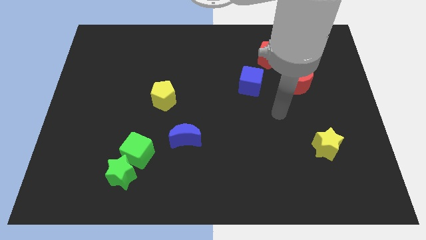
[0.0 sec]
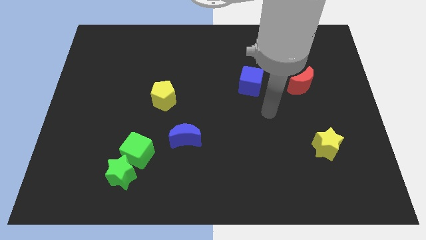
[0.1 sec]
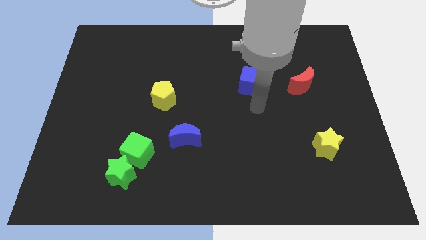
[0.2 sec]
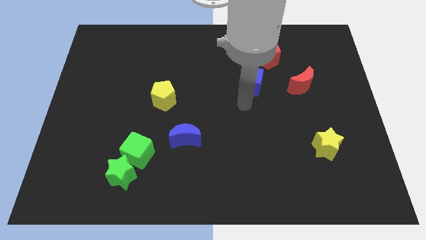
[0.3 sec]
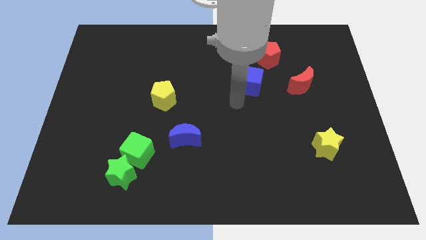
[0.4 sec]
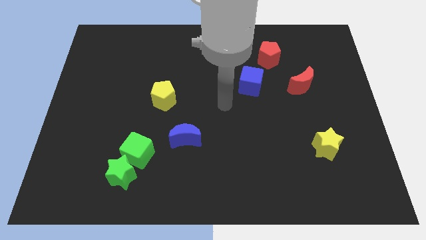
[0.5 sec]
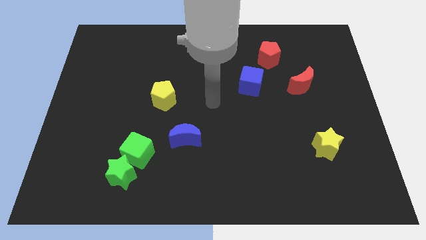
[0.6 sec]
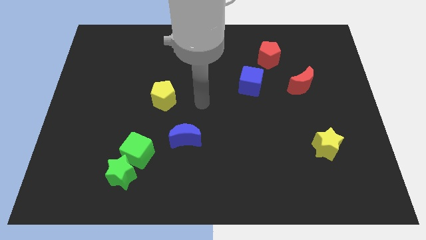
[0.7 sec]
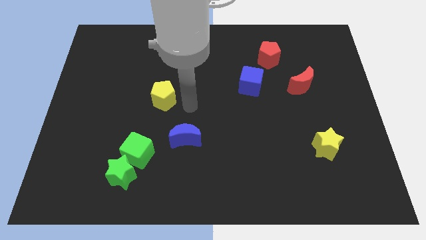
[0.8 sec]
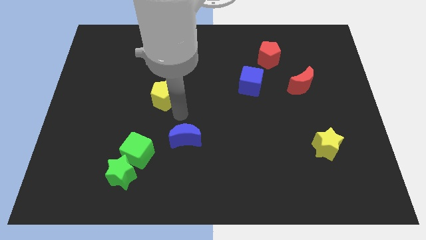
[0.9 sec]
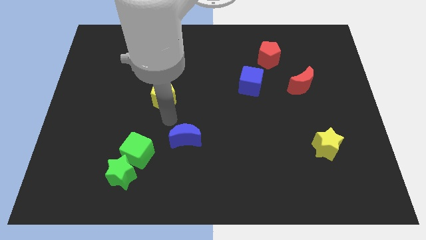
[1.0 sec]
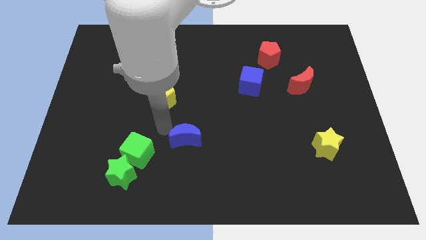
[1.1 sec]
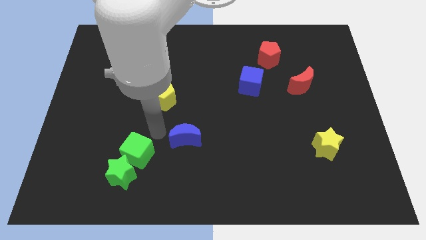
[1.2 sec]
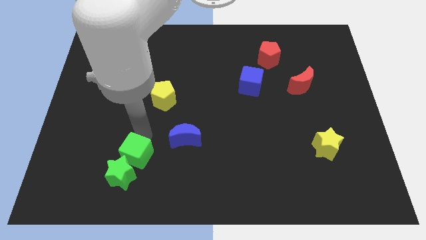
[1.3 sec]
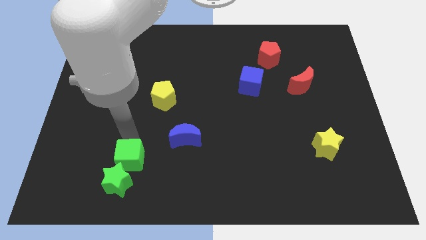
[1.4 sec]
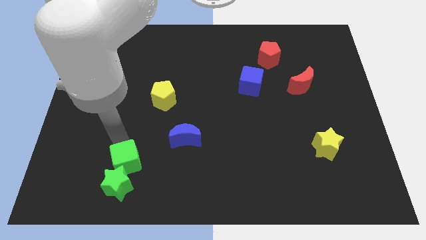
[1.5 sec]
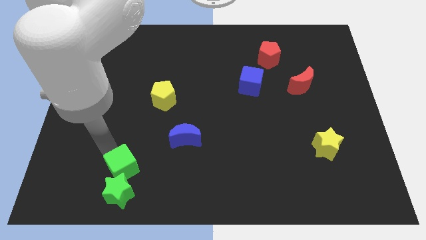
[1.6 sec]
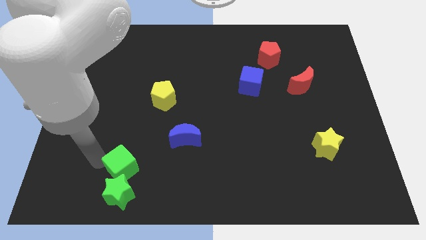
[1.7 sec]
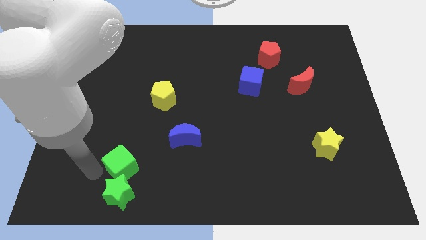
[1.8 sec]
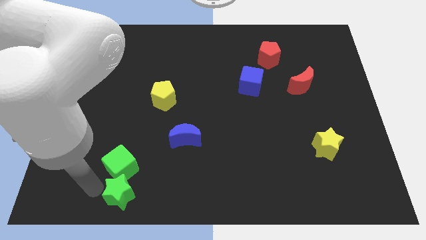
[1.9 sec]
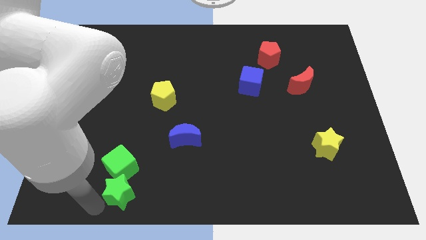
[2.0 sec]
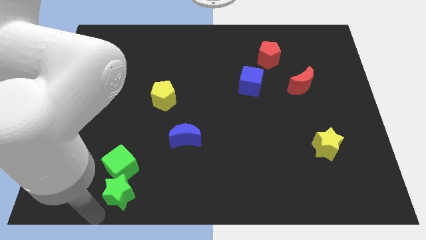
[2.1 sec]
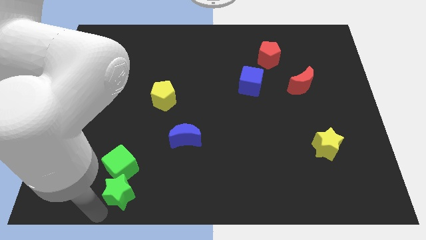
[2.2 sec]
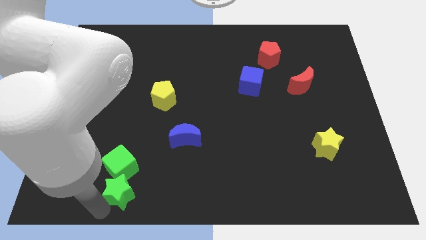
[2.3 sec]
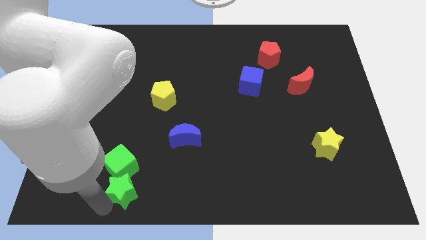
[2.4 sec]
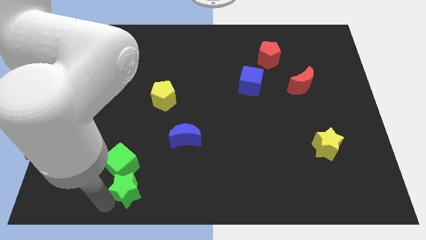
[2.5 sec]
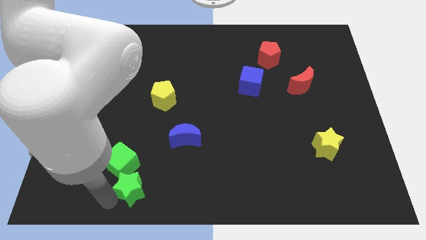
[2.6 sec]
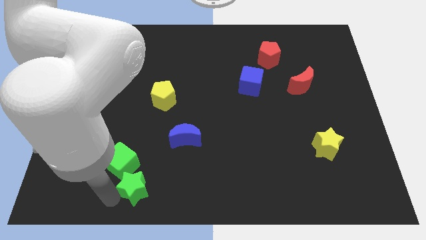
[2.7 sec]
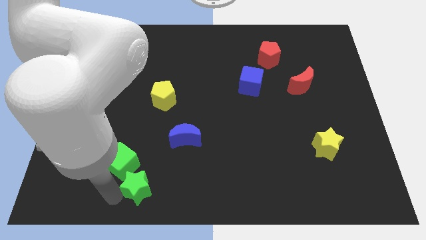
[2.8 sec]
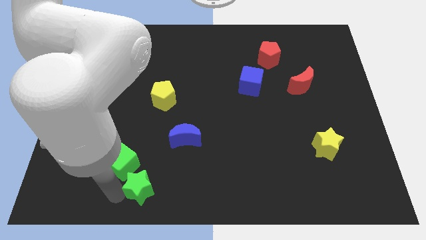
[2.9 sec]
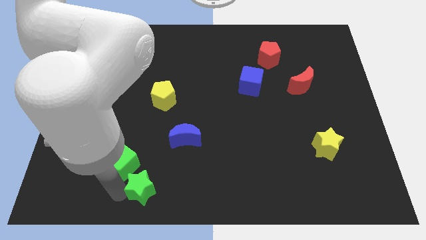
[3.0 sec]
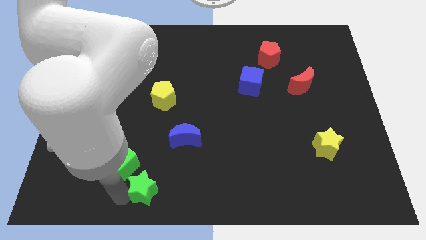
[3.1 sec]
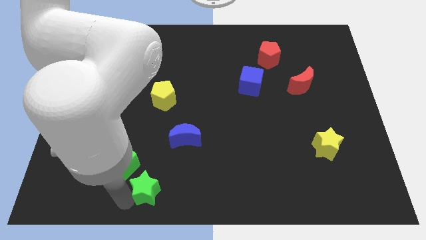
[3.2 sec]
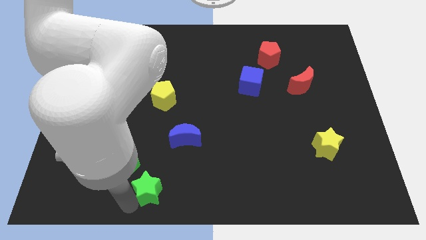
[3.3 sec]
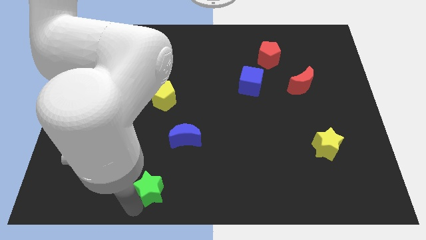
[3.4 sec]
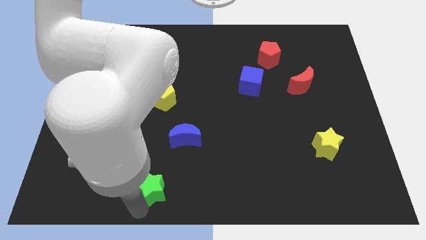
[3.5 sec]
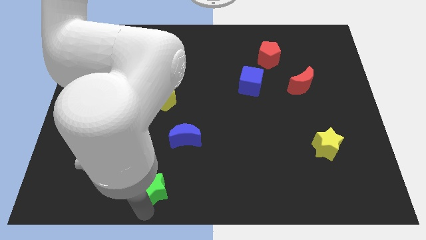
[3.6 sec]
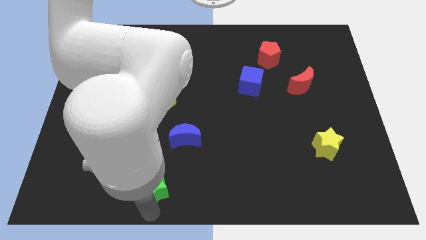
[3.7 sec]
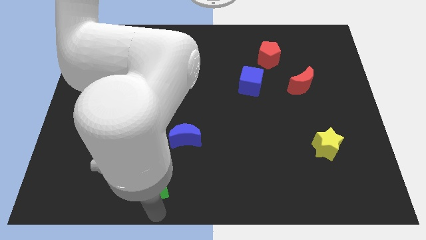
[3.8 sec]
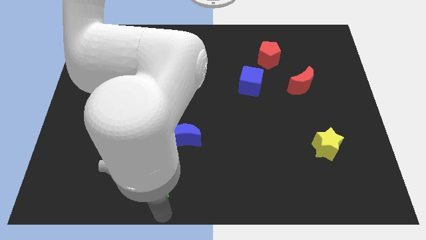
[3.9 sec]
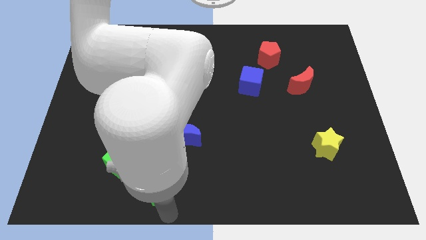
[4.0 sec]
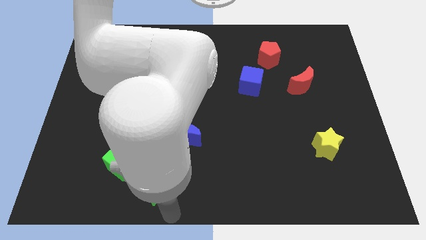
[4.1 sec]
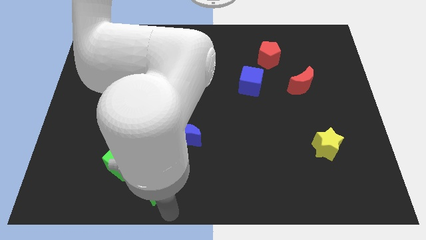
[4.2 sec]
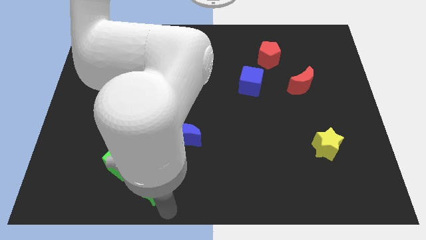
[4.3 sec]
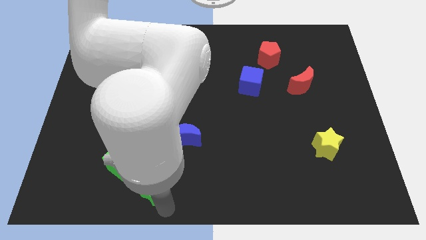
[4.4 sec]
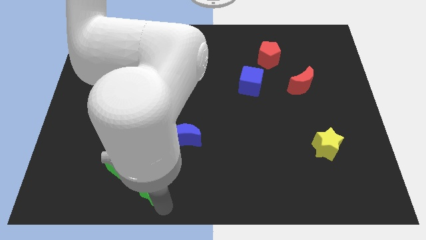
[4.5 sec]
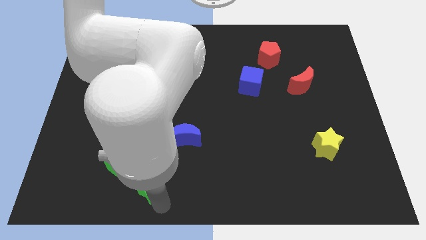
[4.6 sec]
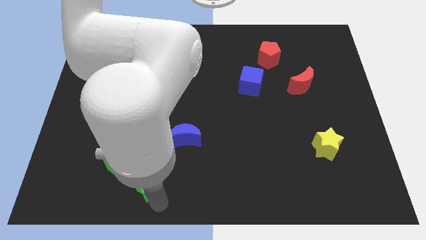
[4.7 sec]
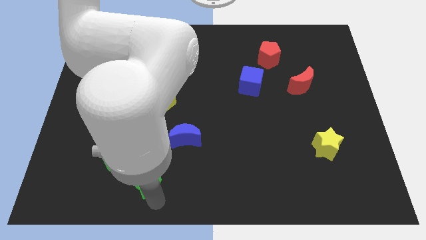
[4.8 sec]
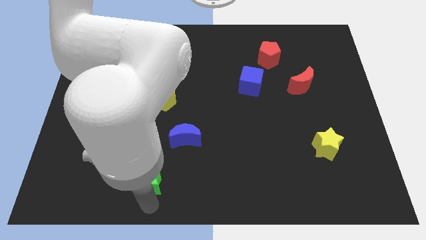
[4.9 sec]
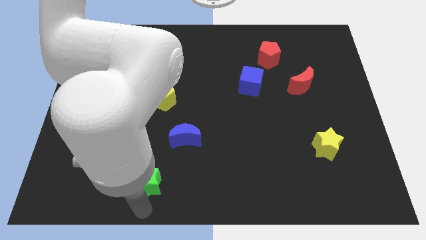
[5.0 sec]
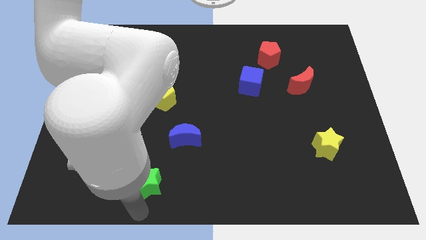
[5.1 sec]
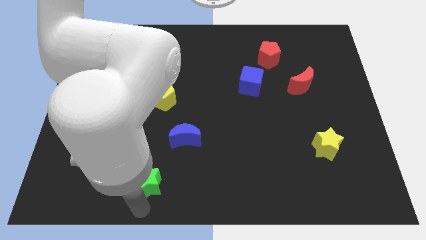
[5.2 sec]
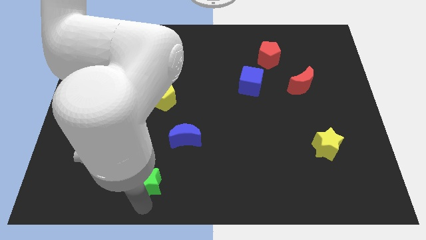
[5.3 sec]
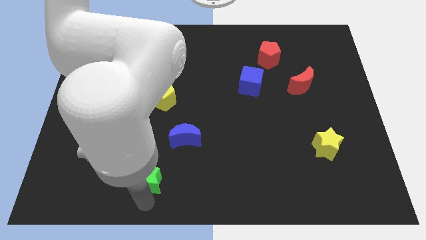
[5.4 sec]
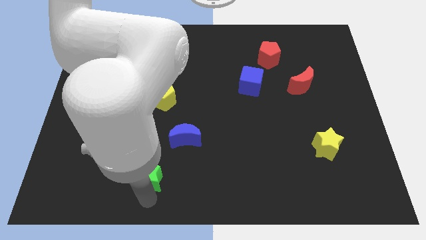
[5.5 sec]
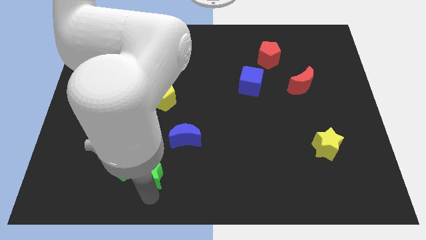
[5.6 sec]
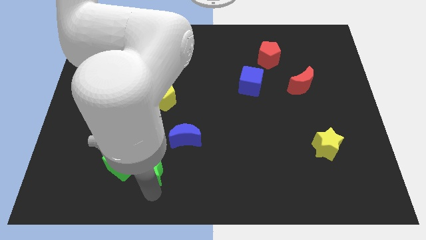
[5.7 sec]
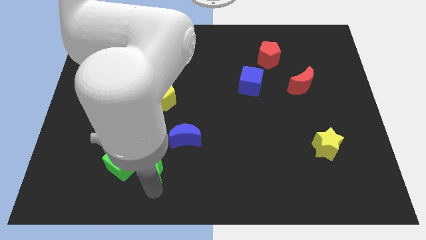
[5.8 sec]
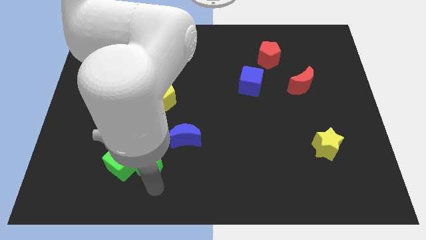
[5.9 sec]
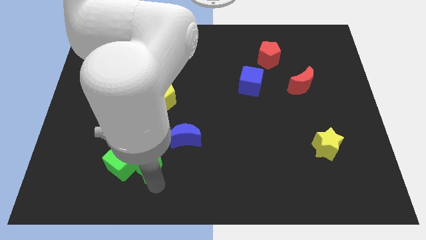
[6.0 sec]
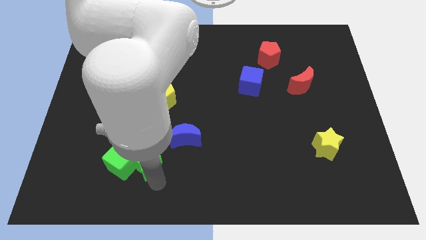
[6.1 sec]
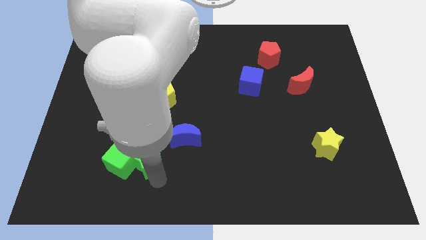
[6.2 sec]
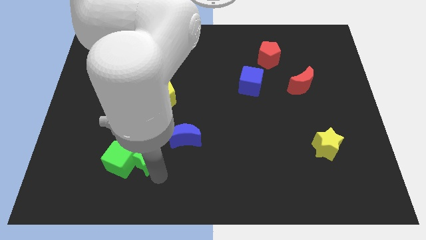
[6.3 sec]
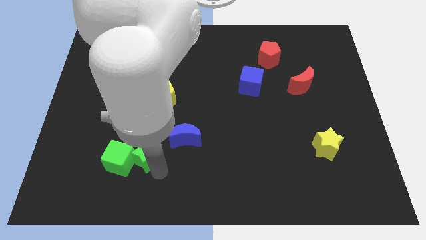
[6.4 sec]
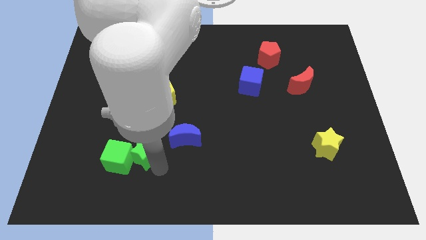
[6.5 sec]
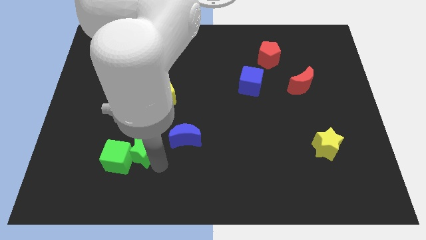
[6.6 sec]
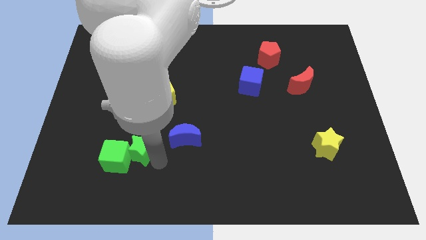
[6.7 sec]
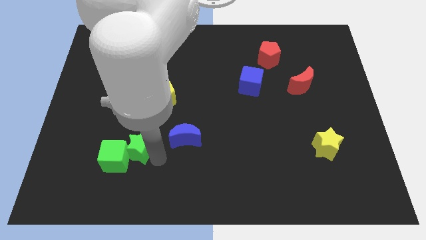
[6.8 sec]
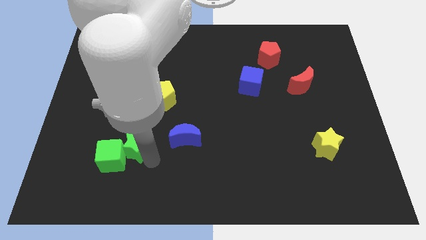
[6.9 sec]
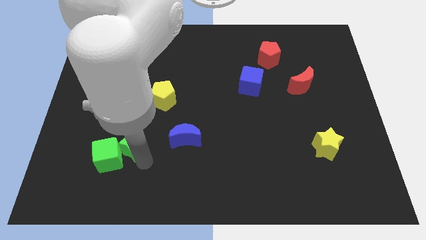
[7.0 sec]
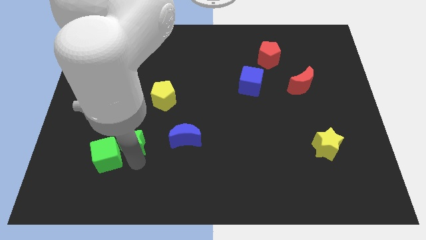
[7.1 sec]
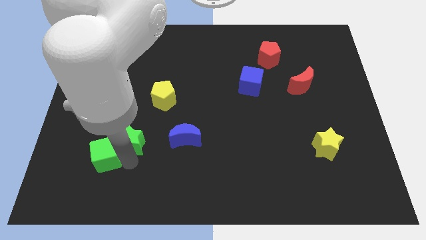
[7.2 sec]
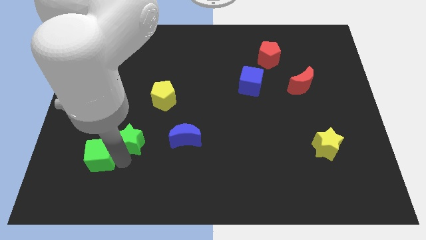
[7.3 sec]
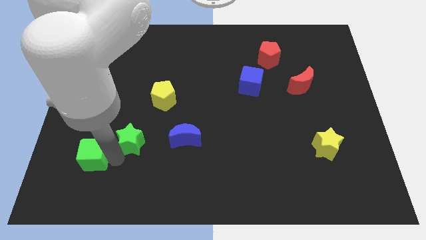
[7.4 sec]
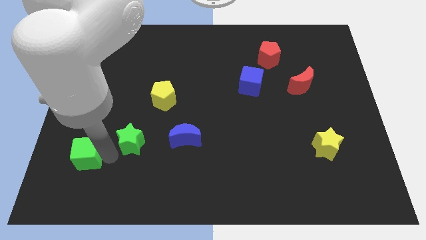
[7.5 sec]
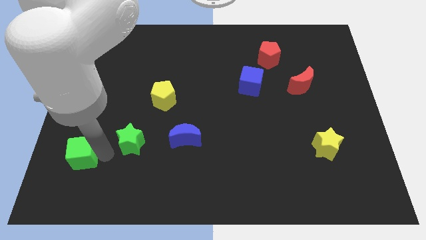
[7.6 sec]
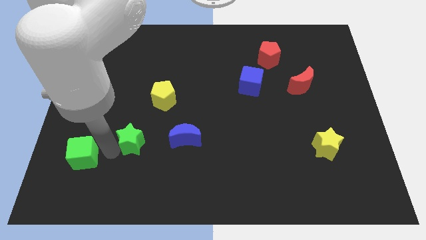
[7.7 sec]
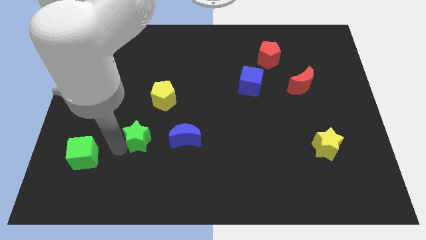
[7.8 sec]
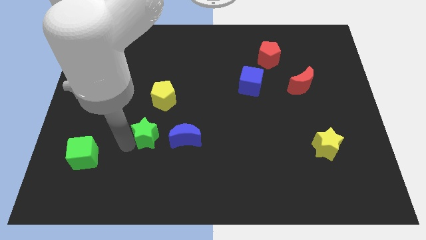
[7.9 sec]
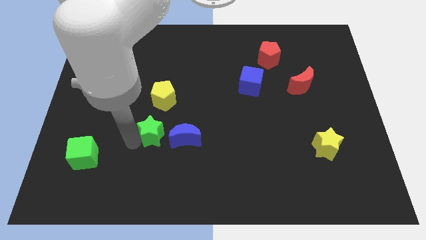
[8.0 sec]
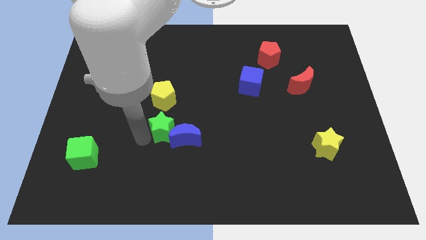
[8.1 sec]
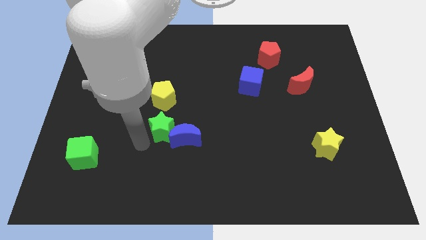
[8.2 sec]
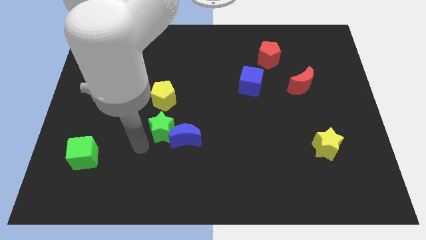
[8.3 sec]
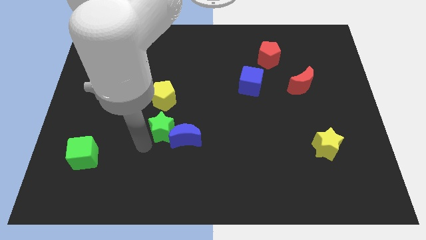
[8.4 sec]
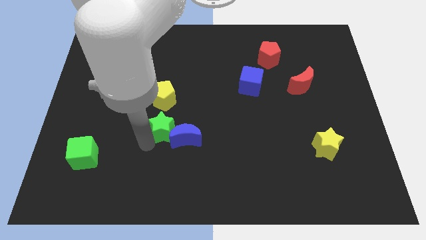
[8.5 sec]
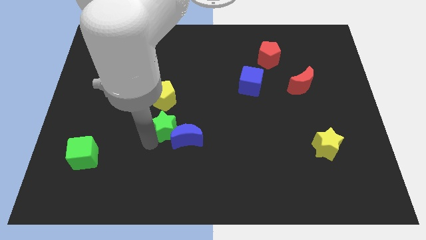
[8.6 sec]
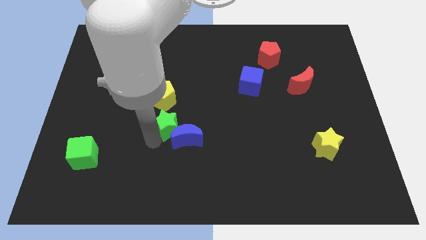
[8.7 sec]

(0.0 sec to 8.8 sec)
move the green star to the bottom right of the yellow pentagon
